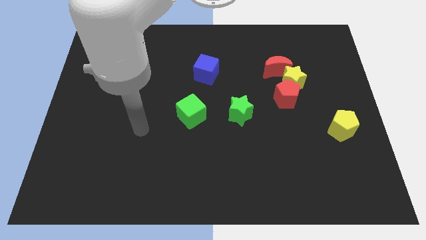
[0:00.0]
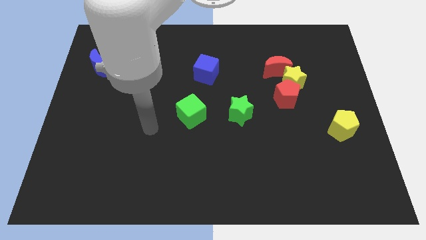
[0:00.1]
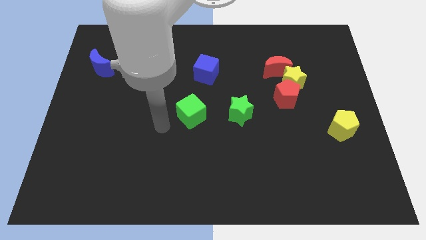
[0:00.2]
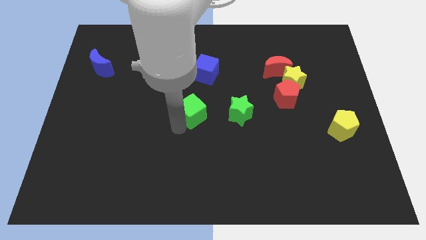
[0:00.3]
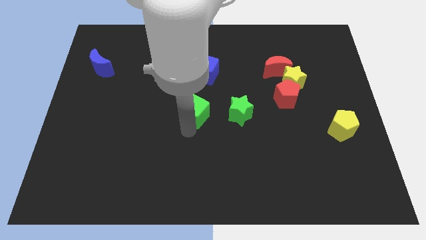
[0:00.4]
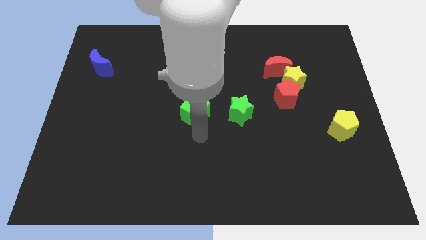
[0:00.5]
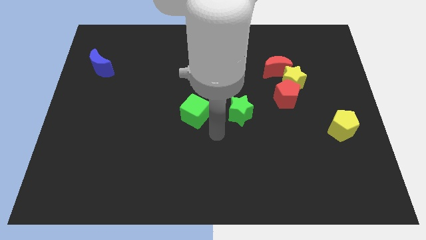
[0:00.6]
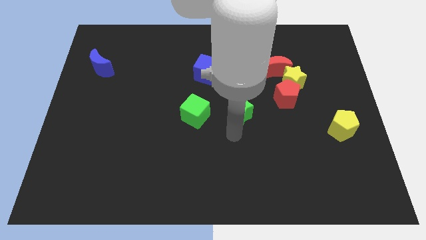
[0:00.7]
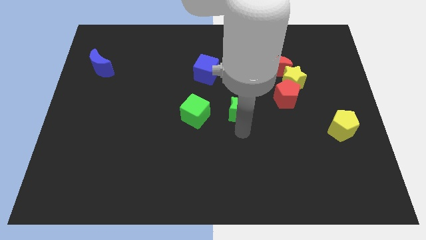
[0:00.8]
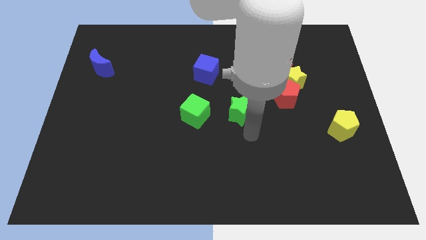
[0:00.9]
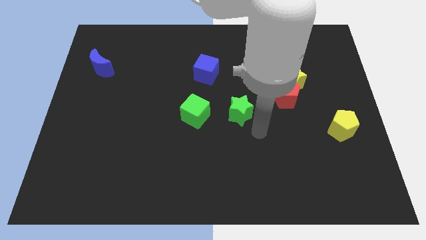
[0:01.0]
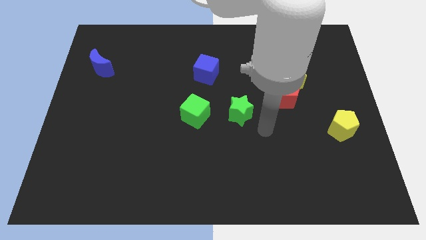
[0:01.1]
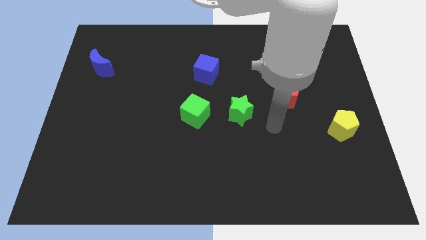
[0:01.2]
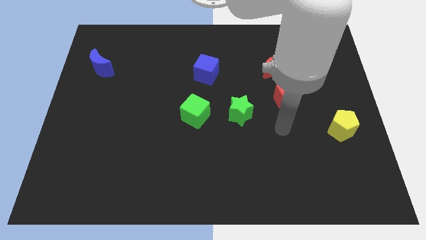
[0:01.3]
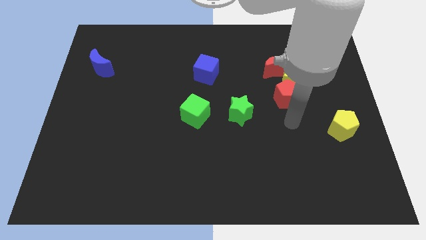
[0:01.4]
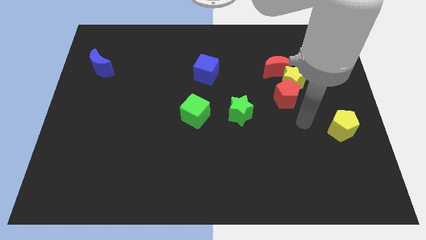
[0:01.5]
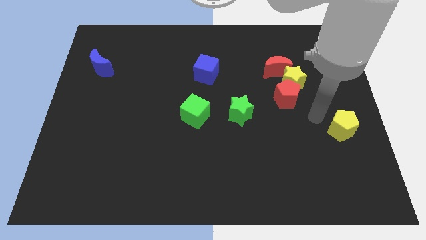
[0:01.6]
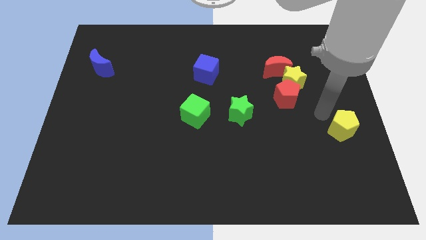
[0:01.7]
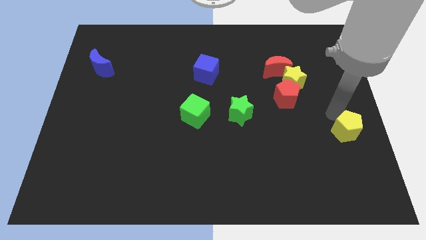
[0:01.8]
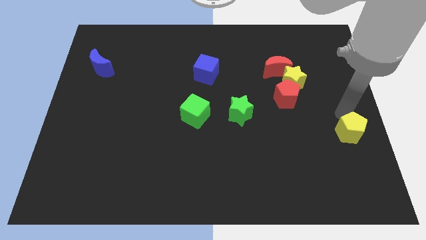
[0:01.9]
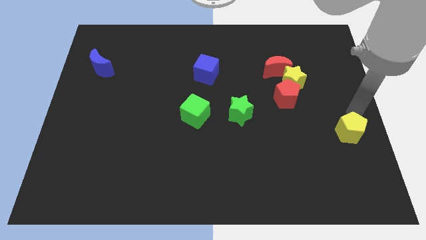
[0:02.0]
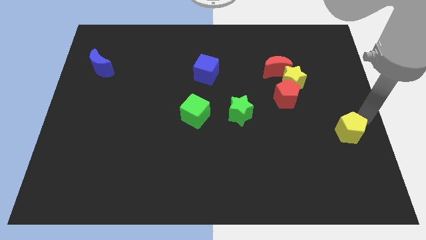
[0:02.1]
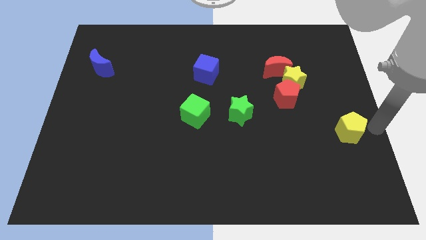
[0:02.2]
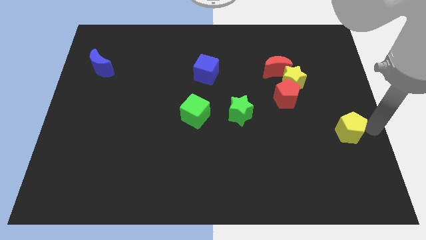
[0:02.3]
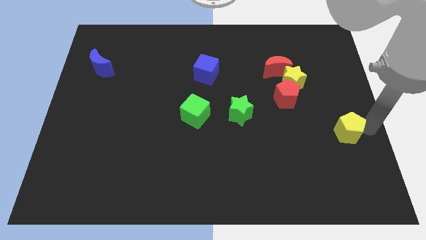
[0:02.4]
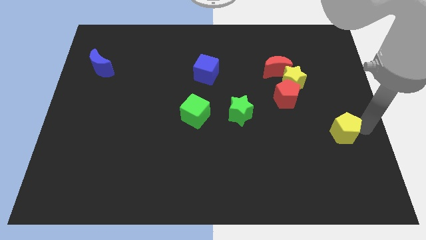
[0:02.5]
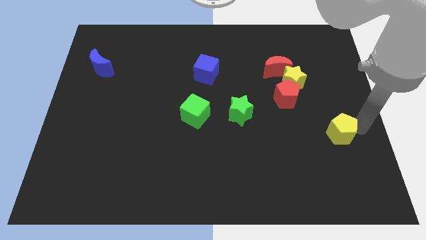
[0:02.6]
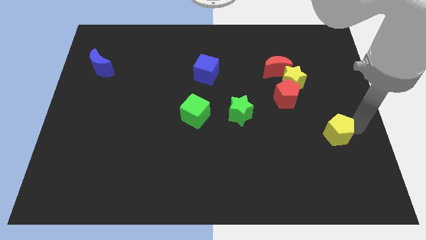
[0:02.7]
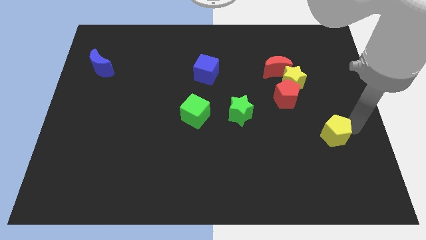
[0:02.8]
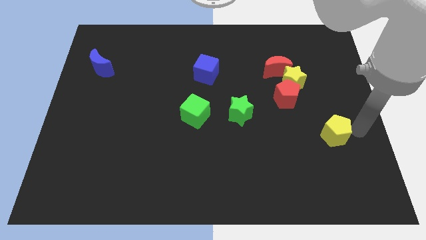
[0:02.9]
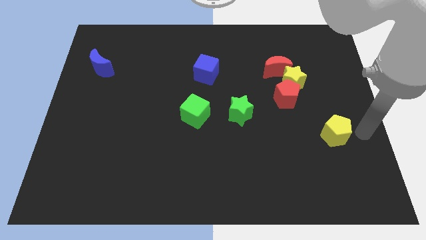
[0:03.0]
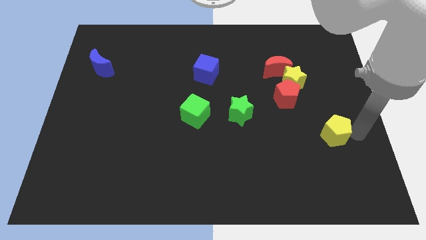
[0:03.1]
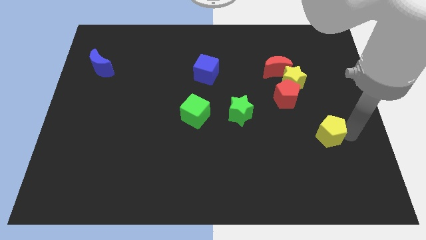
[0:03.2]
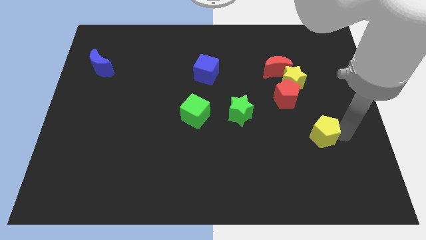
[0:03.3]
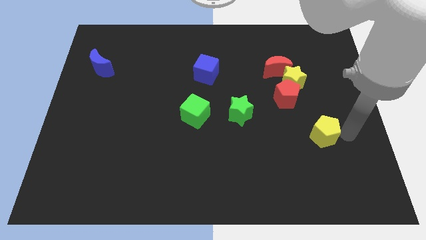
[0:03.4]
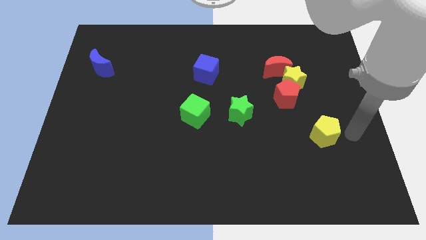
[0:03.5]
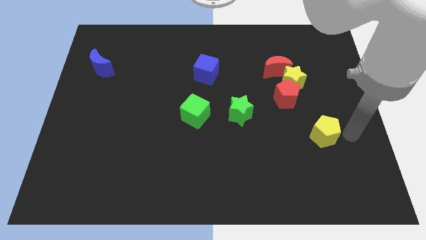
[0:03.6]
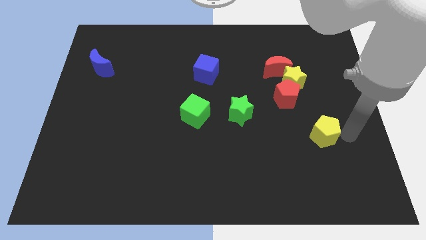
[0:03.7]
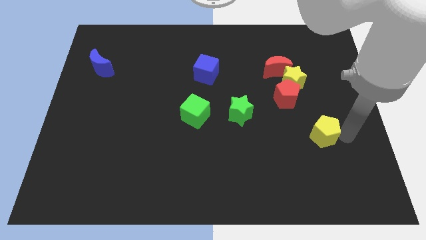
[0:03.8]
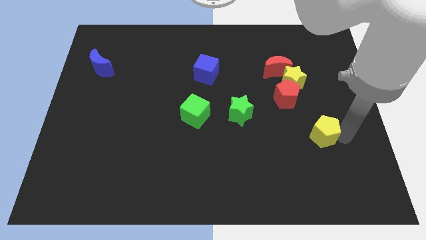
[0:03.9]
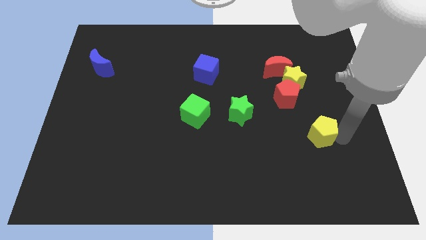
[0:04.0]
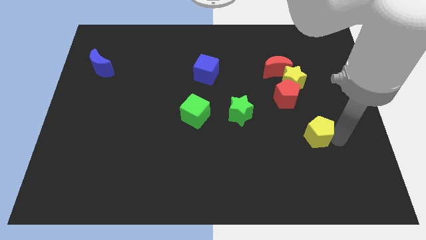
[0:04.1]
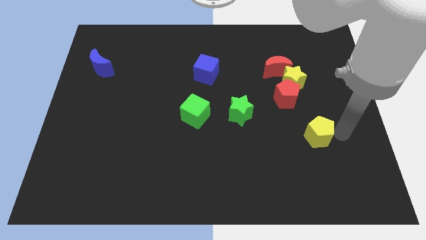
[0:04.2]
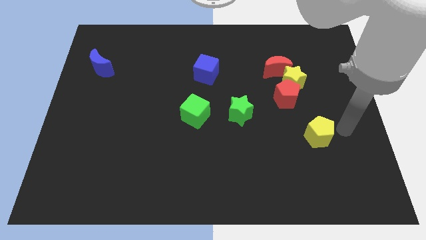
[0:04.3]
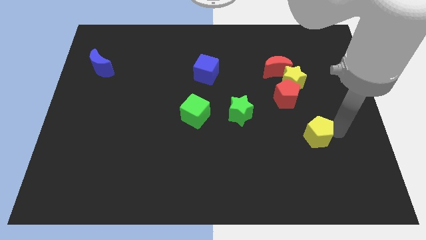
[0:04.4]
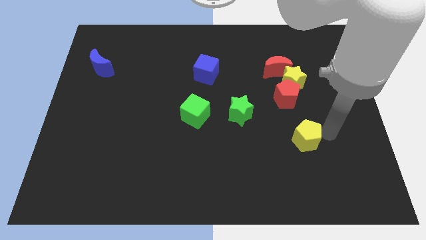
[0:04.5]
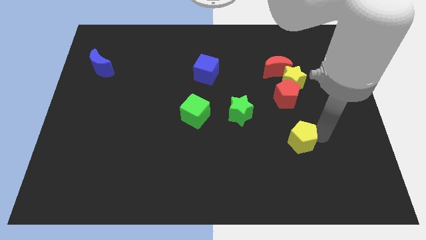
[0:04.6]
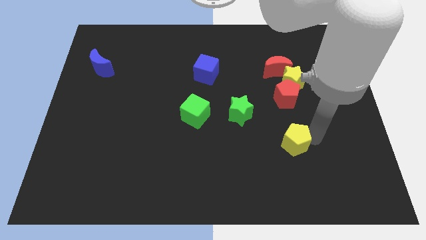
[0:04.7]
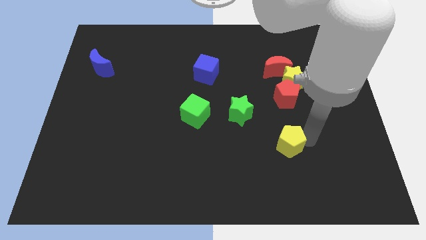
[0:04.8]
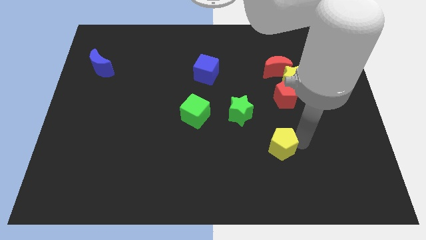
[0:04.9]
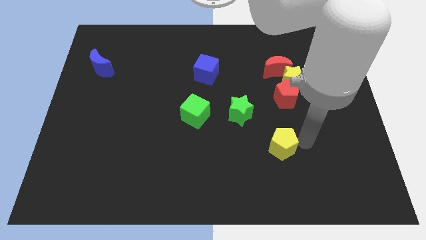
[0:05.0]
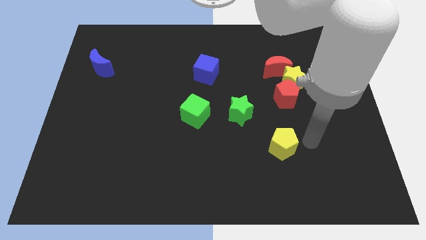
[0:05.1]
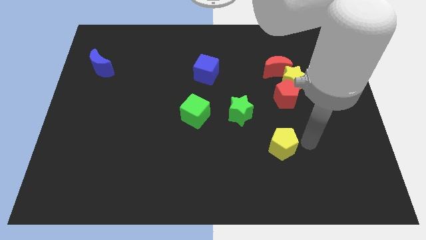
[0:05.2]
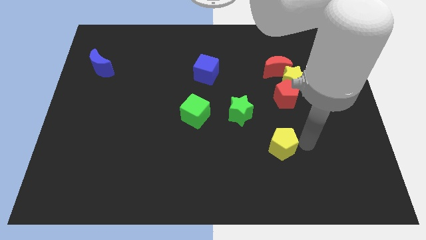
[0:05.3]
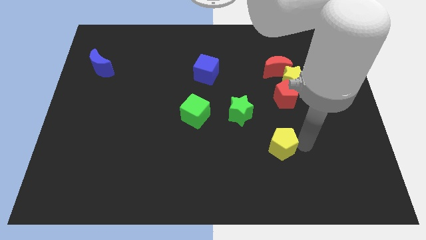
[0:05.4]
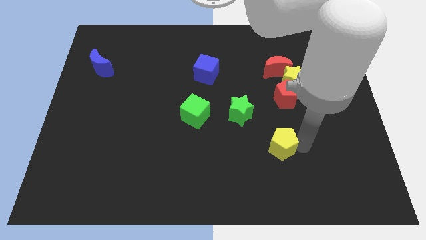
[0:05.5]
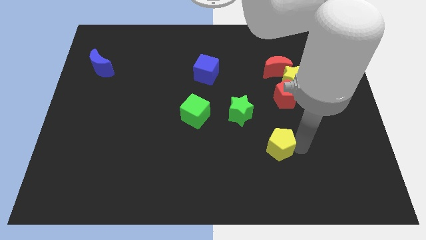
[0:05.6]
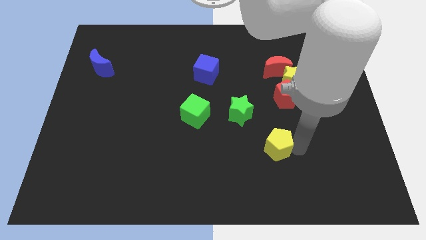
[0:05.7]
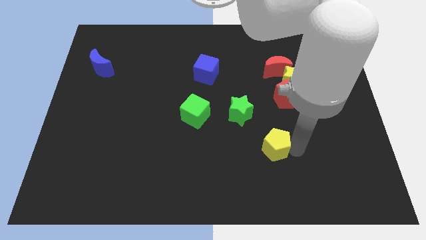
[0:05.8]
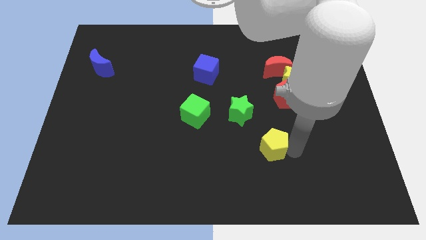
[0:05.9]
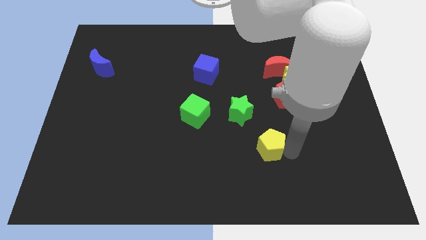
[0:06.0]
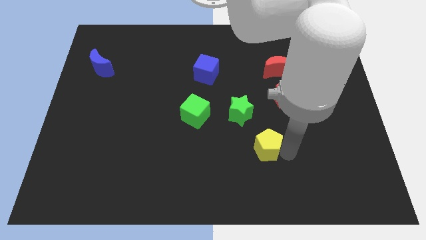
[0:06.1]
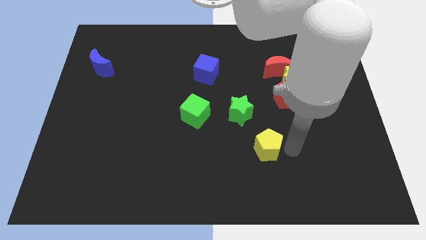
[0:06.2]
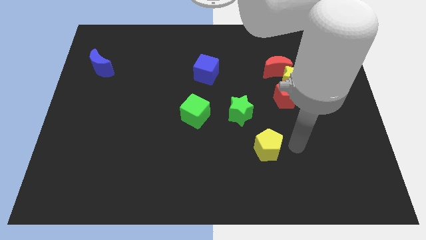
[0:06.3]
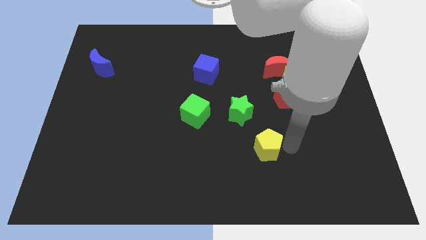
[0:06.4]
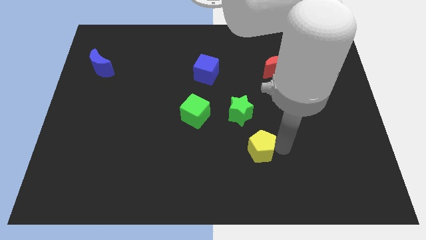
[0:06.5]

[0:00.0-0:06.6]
slide the yellow pentagon below the green star

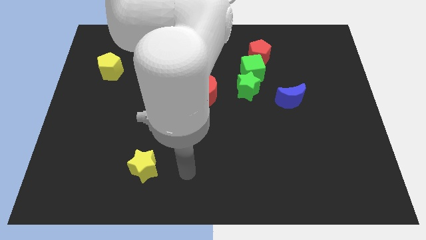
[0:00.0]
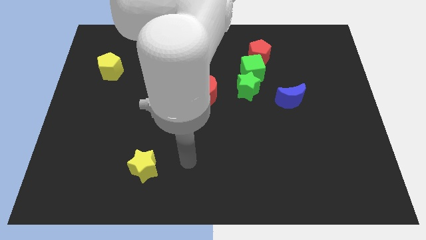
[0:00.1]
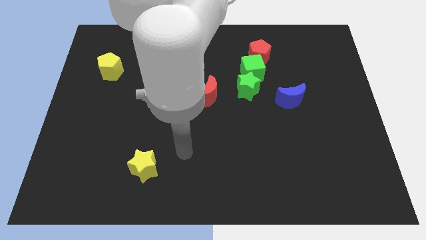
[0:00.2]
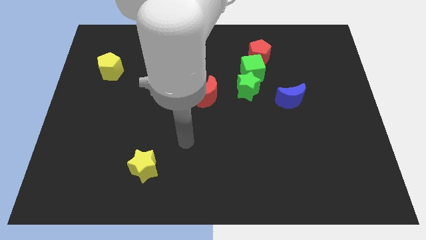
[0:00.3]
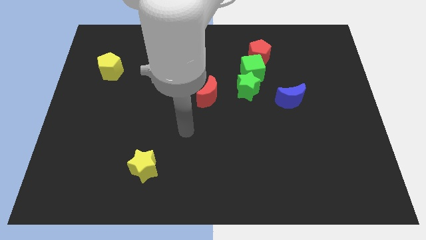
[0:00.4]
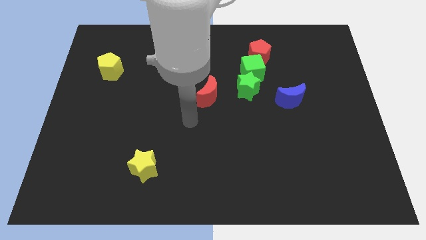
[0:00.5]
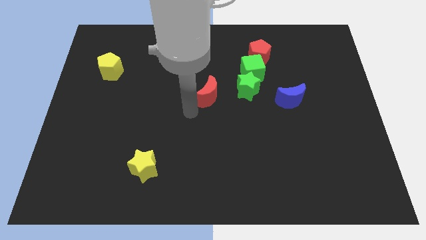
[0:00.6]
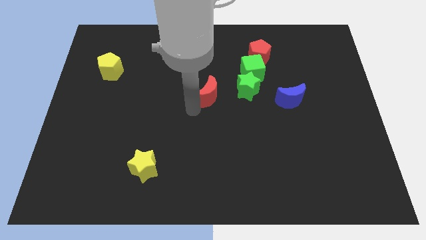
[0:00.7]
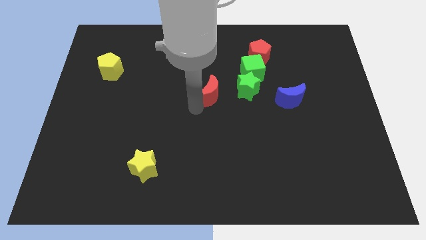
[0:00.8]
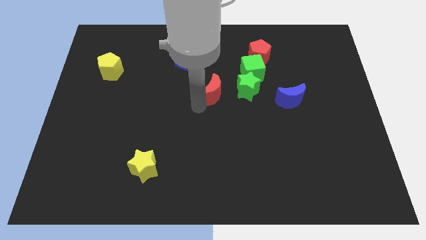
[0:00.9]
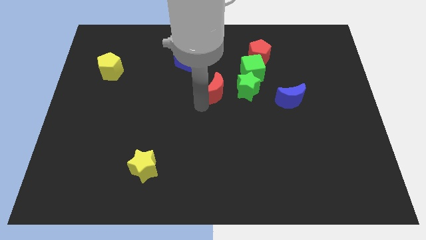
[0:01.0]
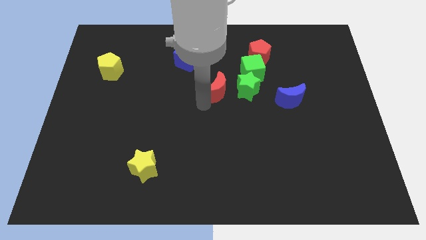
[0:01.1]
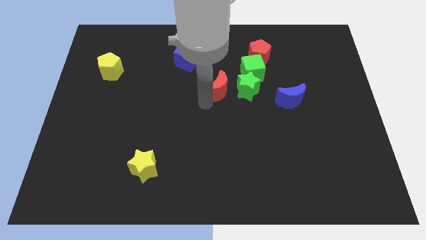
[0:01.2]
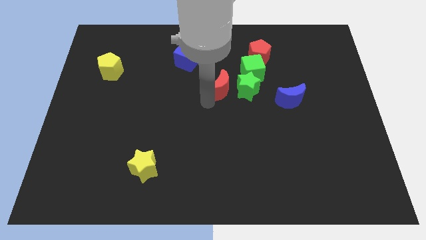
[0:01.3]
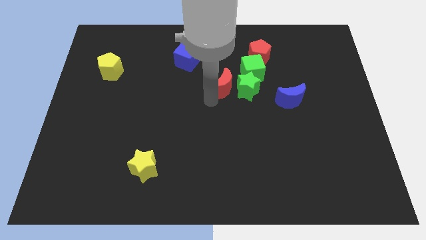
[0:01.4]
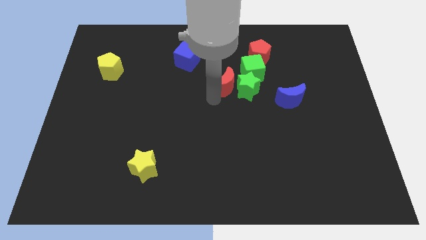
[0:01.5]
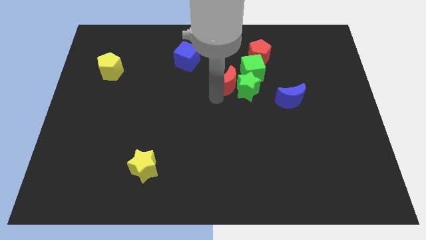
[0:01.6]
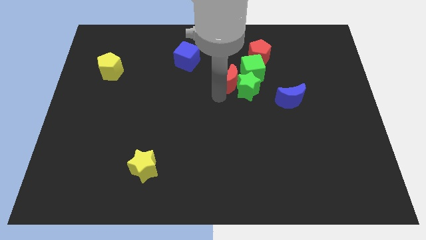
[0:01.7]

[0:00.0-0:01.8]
push the red moon to the bottom left of the red pentagon
